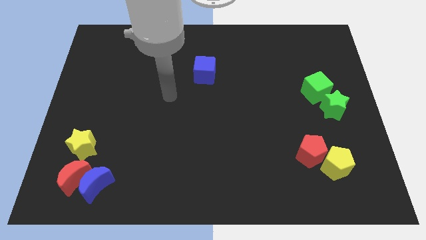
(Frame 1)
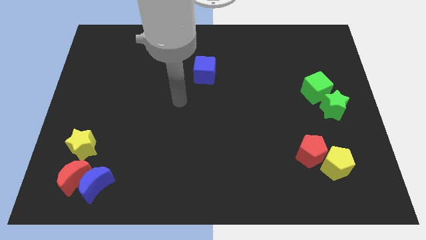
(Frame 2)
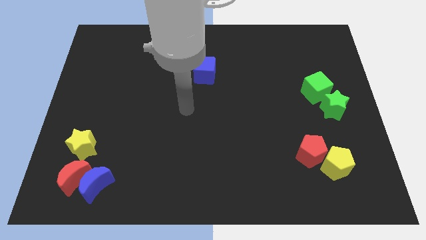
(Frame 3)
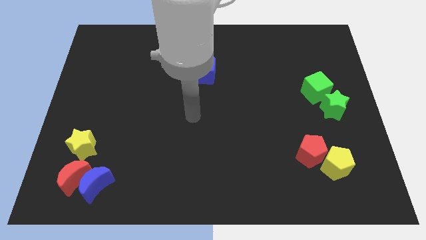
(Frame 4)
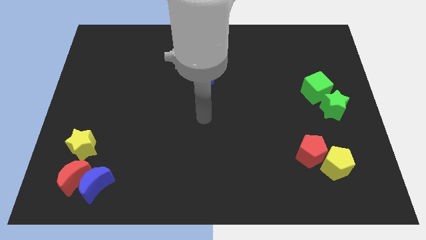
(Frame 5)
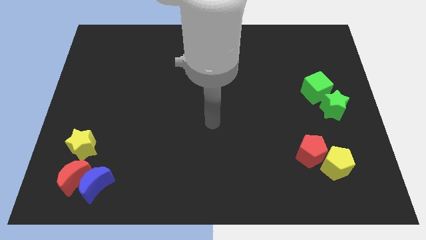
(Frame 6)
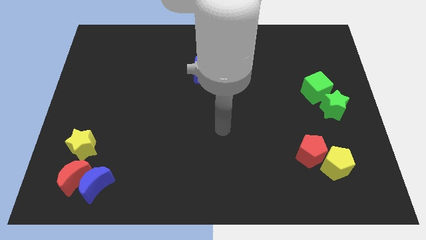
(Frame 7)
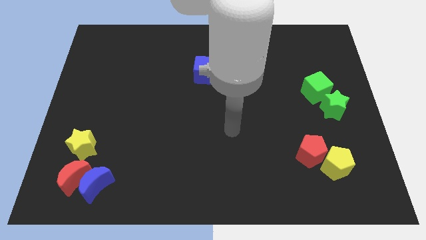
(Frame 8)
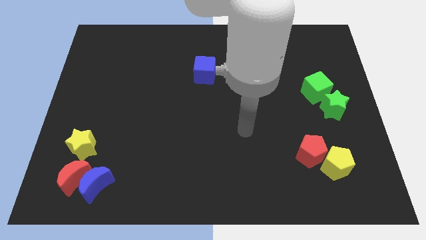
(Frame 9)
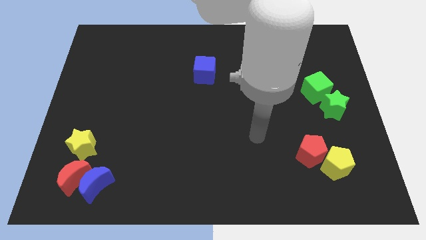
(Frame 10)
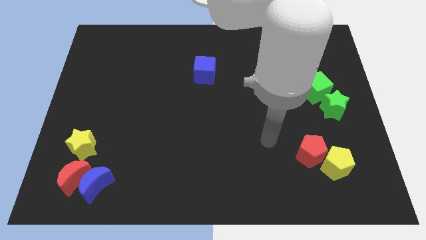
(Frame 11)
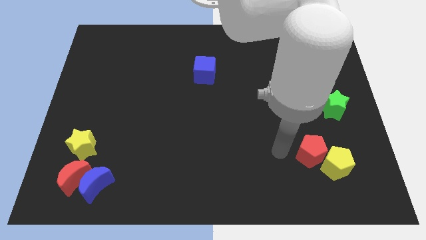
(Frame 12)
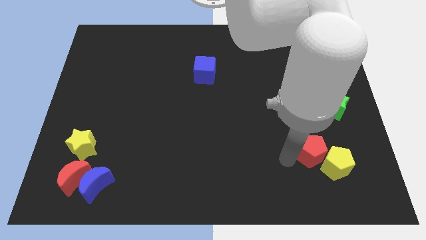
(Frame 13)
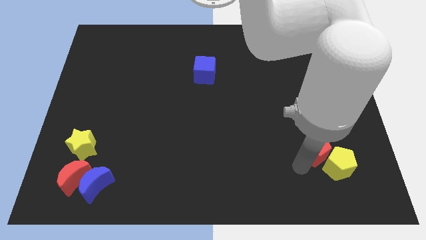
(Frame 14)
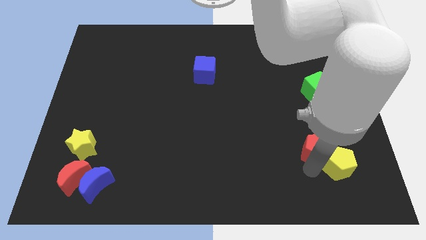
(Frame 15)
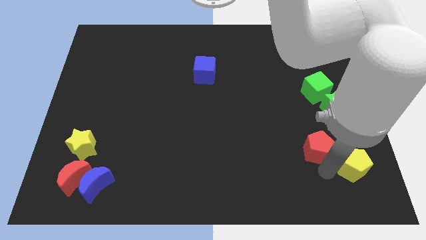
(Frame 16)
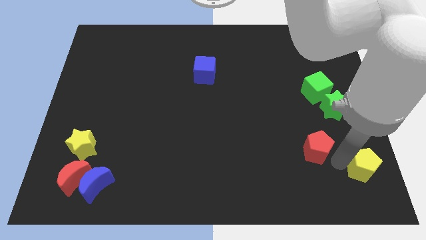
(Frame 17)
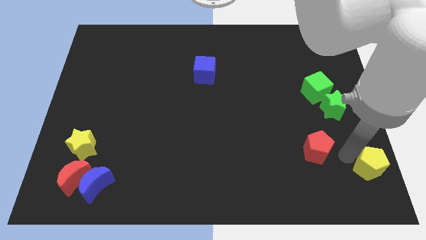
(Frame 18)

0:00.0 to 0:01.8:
move the red pentagon away from the yellow pentagon

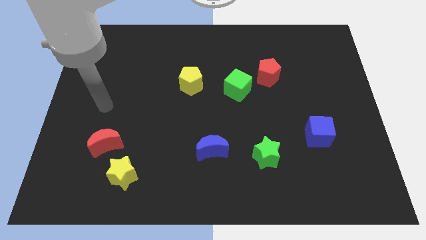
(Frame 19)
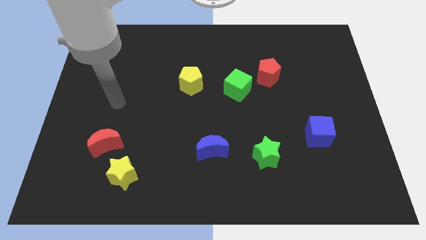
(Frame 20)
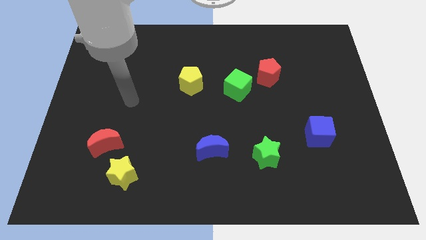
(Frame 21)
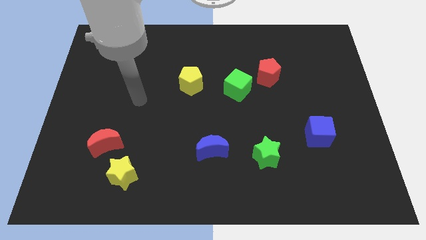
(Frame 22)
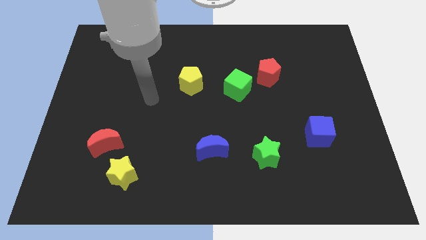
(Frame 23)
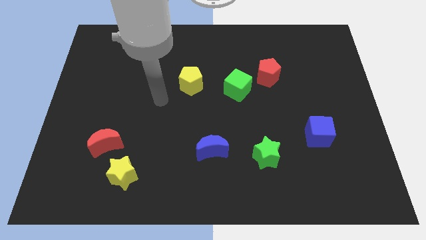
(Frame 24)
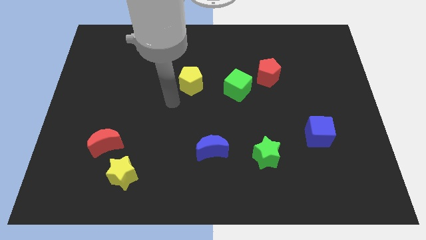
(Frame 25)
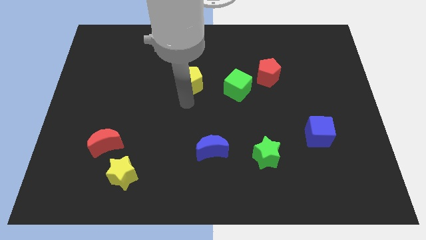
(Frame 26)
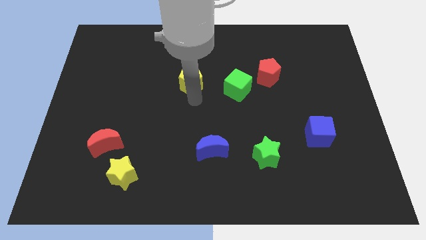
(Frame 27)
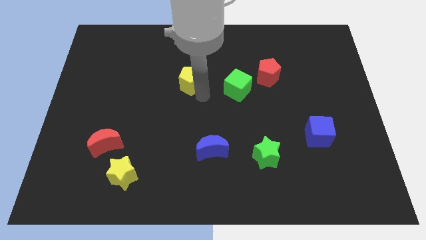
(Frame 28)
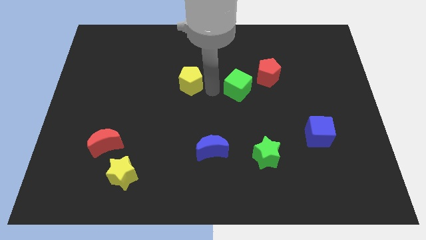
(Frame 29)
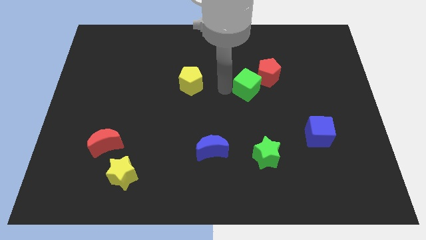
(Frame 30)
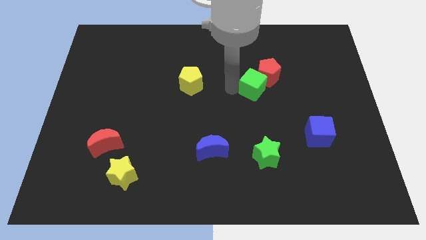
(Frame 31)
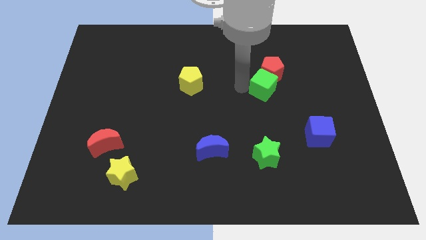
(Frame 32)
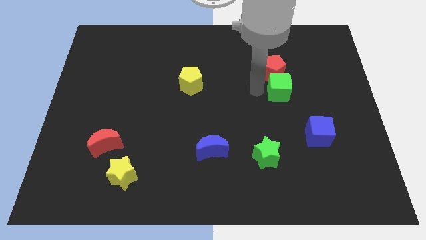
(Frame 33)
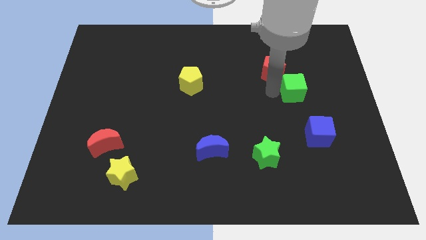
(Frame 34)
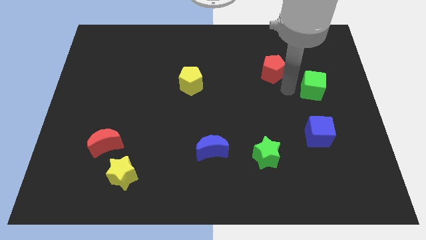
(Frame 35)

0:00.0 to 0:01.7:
move the red pentagon away from the green cube

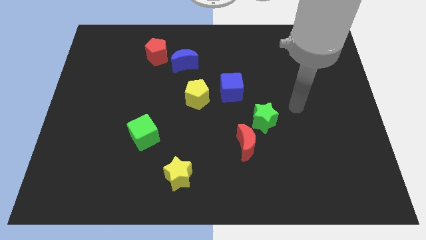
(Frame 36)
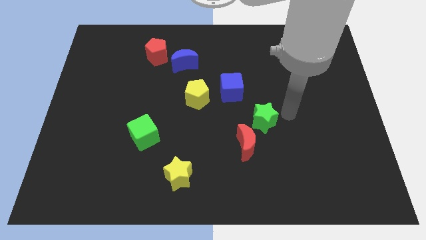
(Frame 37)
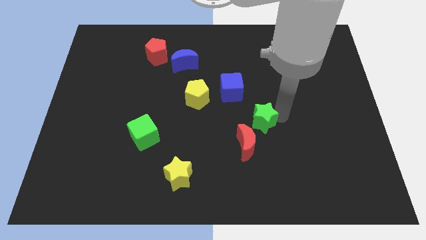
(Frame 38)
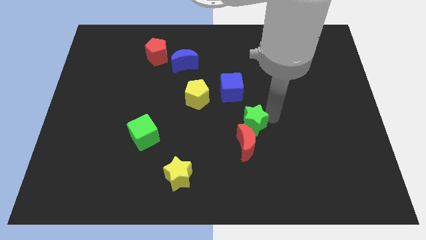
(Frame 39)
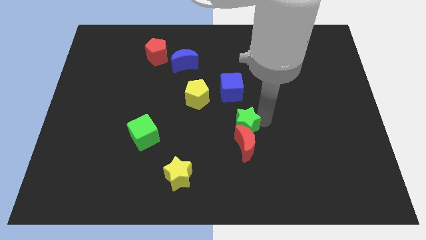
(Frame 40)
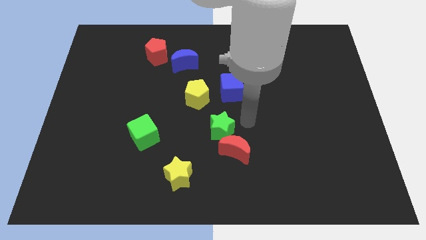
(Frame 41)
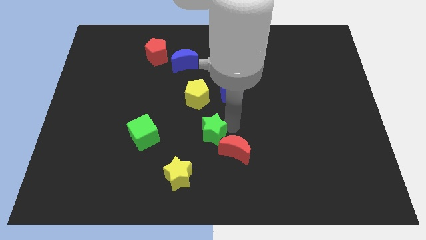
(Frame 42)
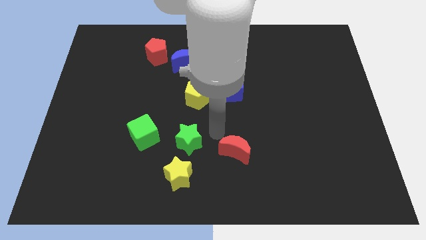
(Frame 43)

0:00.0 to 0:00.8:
move the red moon away from the green star

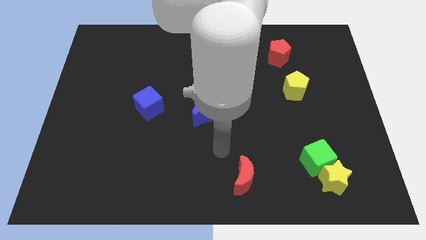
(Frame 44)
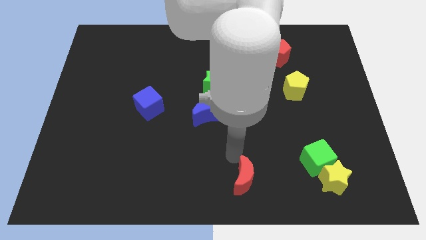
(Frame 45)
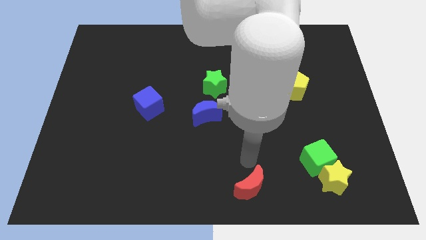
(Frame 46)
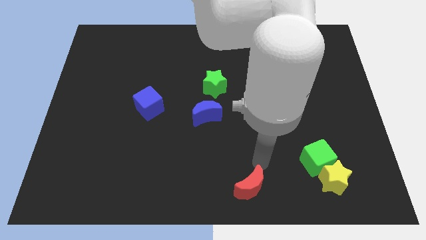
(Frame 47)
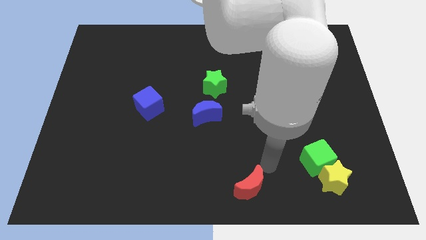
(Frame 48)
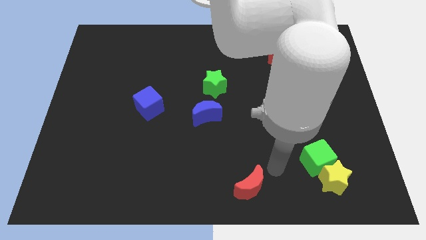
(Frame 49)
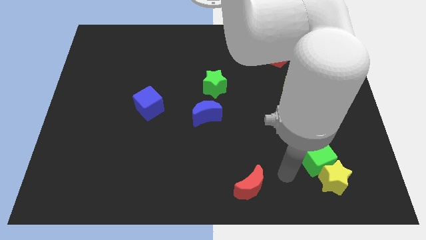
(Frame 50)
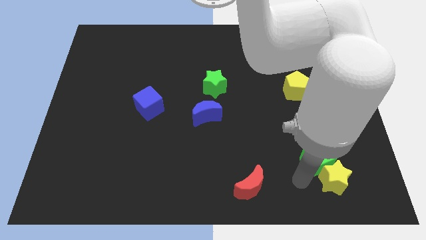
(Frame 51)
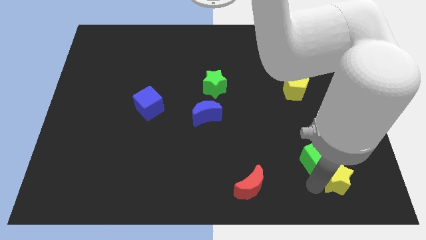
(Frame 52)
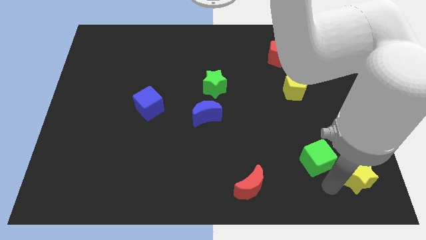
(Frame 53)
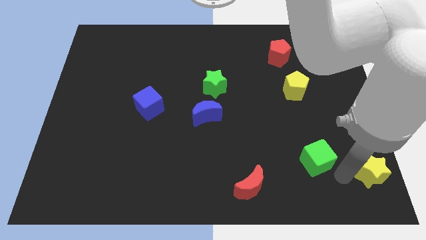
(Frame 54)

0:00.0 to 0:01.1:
pull the green cube apart from the yellow star

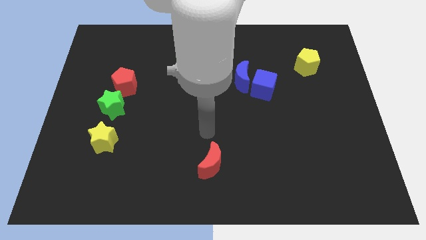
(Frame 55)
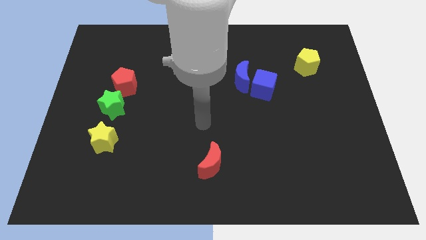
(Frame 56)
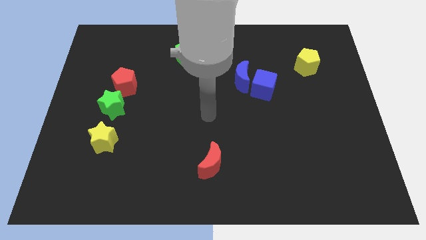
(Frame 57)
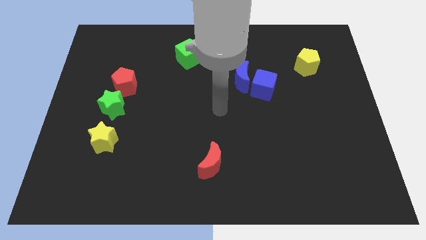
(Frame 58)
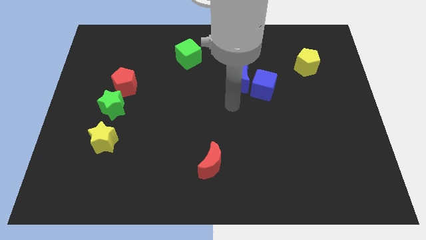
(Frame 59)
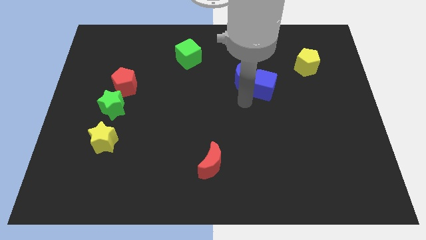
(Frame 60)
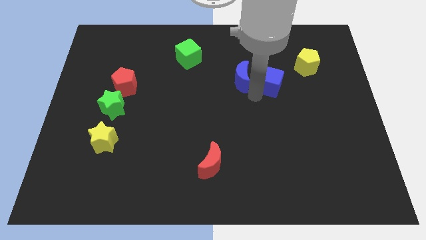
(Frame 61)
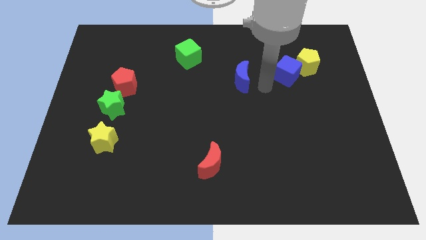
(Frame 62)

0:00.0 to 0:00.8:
pull the blue moon apart from the blue cube

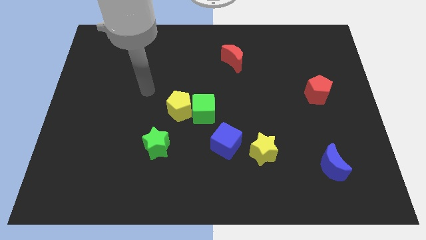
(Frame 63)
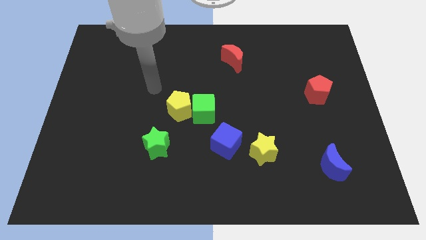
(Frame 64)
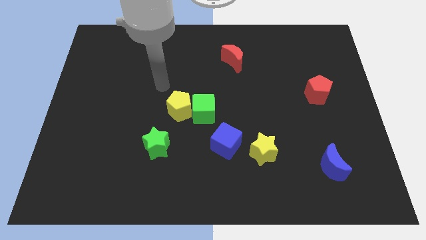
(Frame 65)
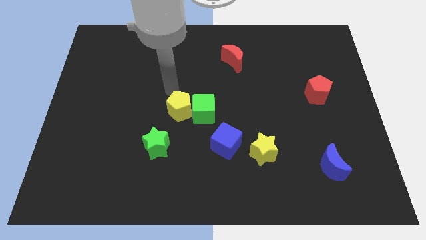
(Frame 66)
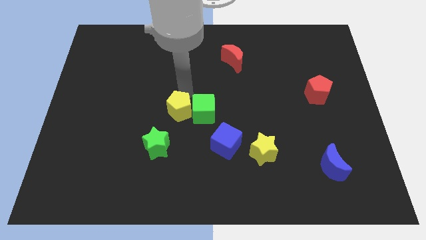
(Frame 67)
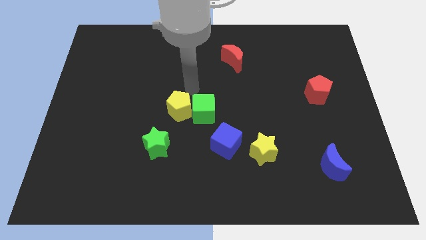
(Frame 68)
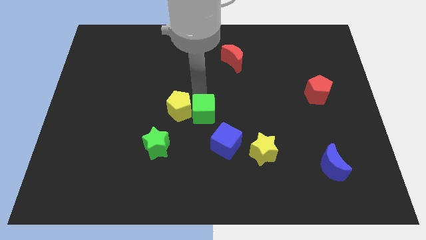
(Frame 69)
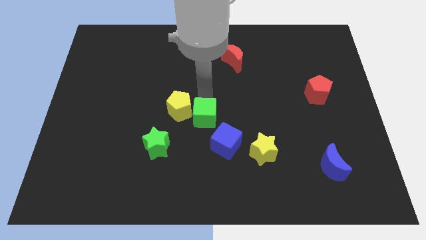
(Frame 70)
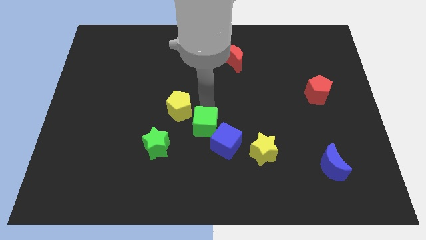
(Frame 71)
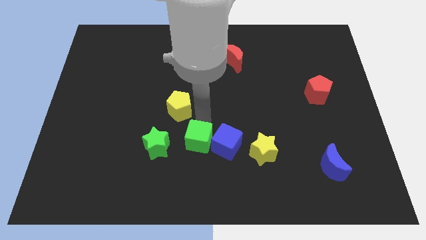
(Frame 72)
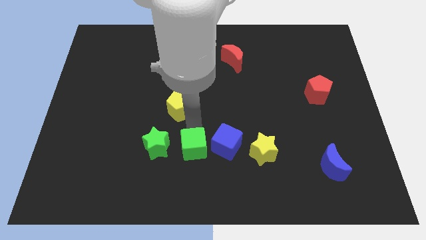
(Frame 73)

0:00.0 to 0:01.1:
move the yellow pentagon away from the green cube

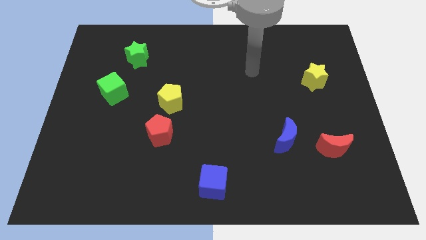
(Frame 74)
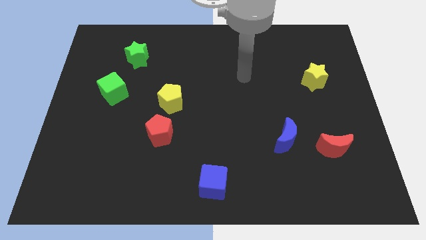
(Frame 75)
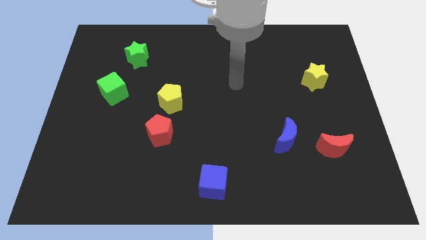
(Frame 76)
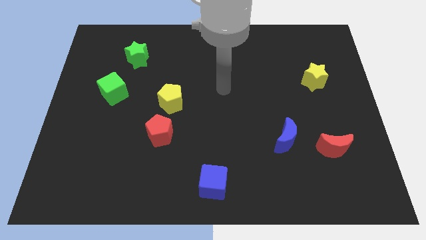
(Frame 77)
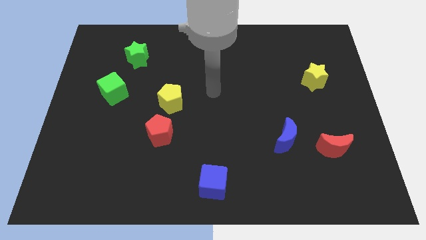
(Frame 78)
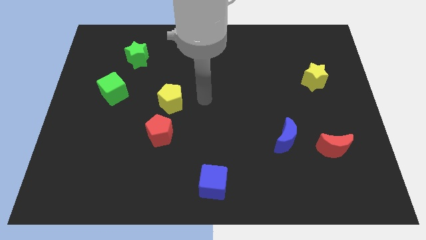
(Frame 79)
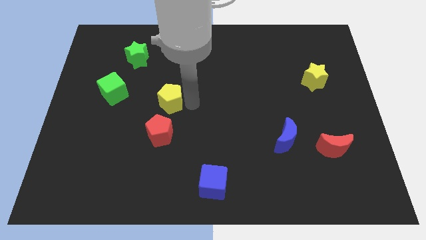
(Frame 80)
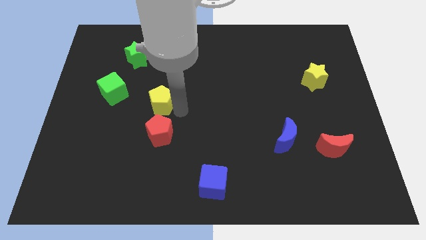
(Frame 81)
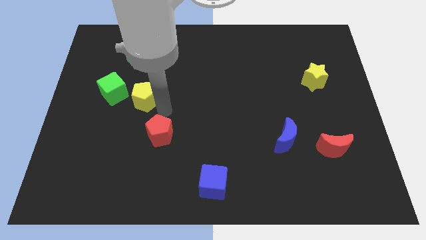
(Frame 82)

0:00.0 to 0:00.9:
separate the red pentagon from the yellow pentagon

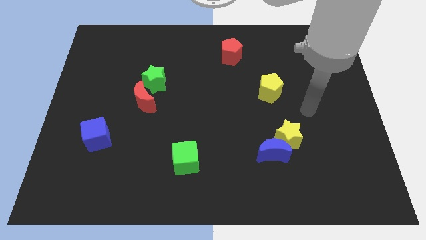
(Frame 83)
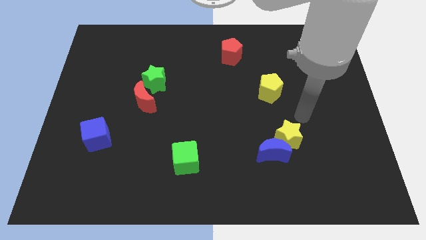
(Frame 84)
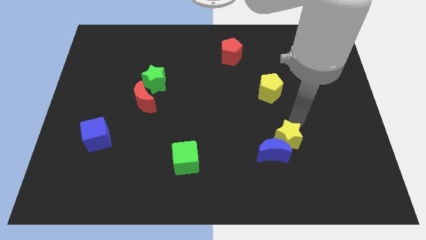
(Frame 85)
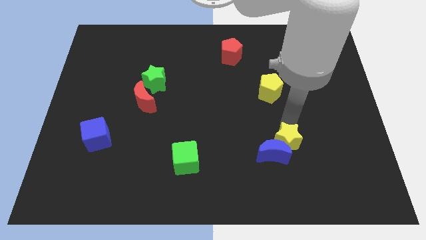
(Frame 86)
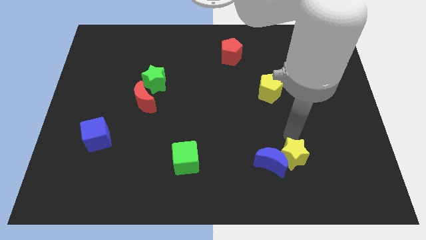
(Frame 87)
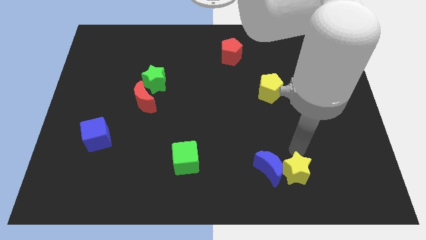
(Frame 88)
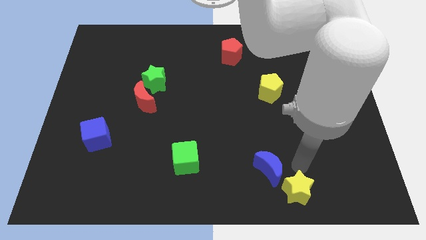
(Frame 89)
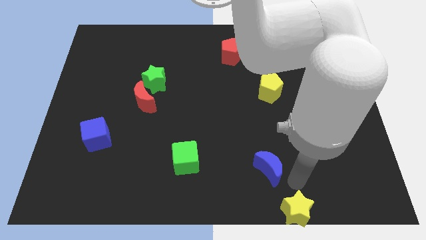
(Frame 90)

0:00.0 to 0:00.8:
pull the blue moon apart from the yellow star

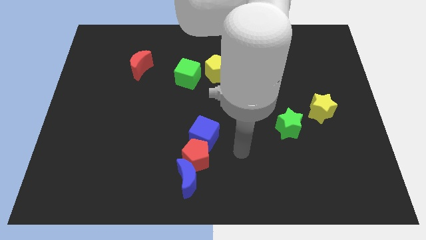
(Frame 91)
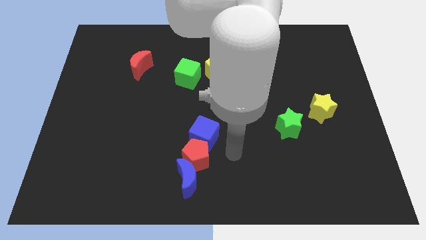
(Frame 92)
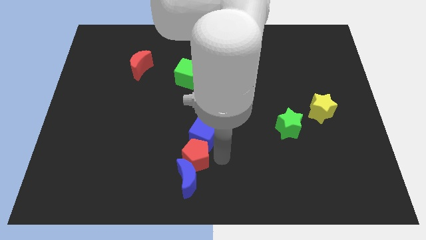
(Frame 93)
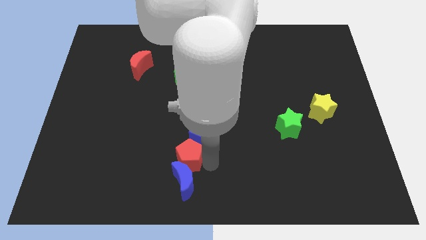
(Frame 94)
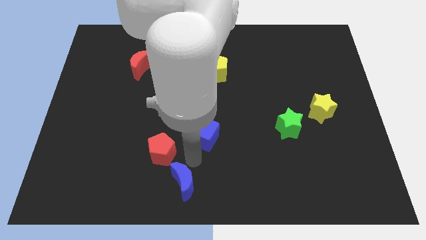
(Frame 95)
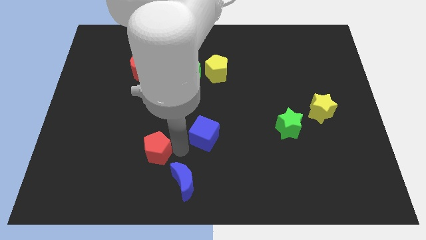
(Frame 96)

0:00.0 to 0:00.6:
separate the blue cube from the red pentagon
